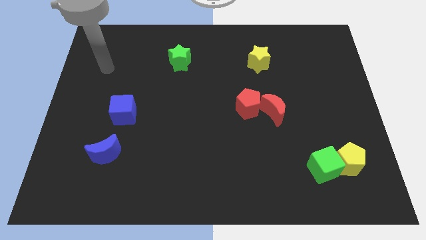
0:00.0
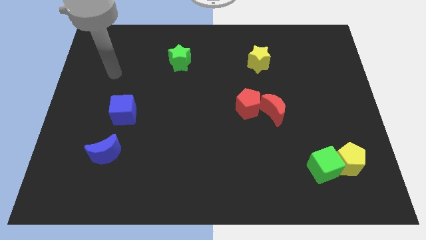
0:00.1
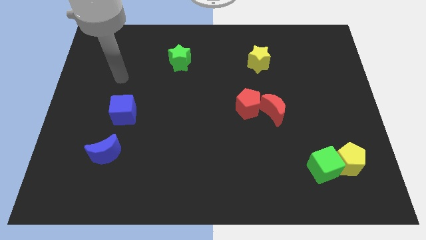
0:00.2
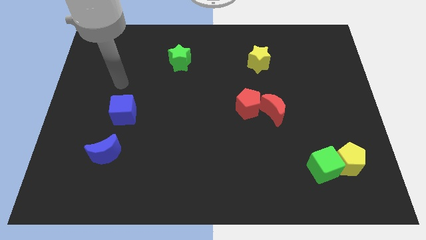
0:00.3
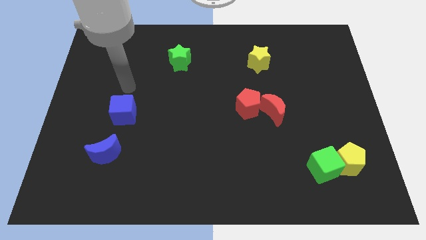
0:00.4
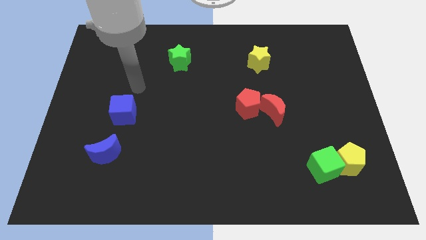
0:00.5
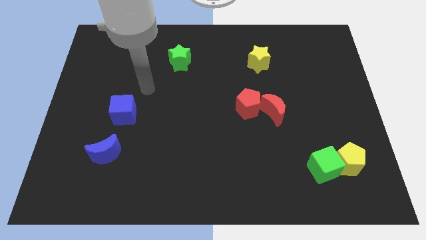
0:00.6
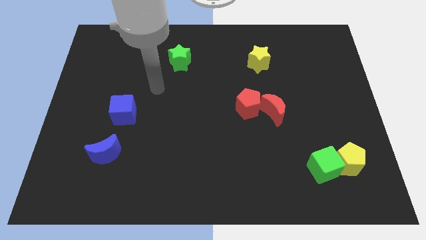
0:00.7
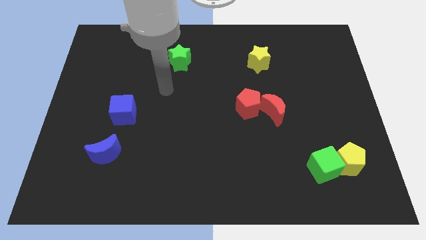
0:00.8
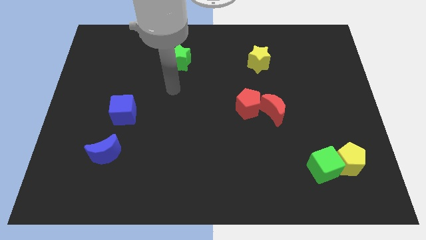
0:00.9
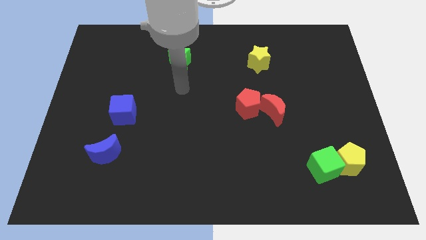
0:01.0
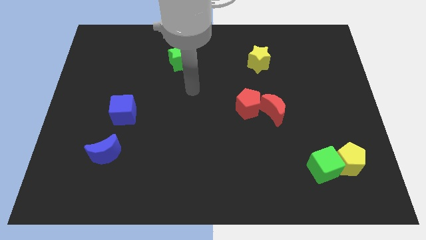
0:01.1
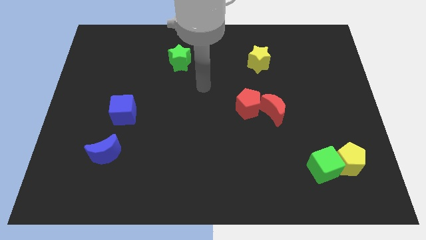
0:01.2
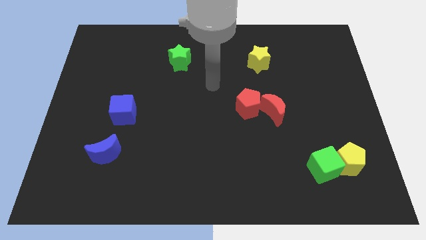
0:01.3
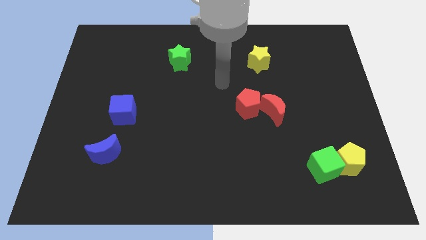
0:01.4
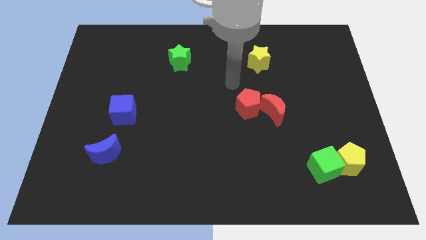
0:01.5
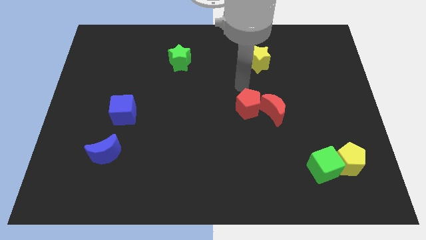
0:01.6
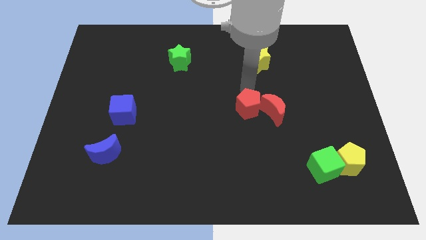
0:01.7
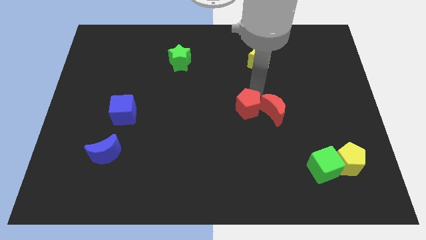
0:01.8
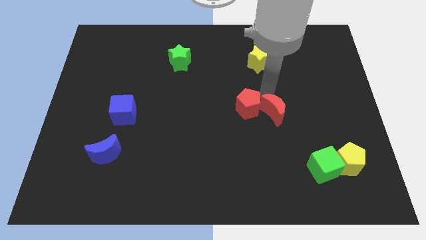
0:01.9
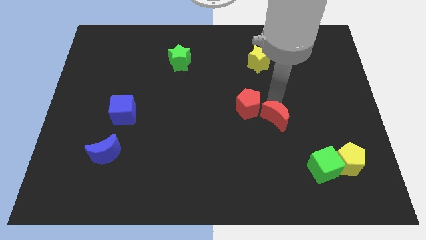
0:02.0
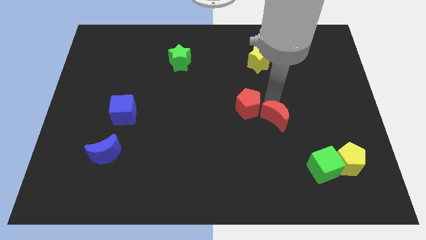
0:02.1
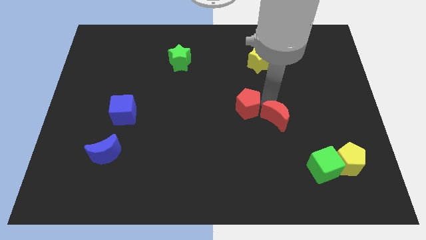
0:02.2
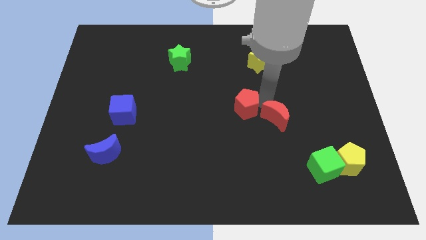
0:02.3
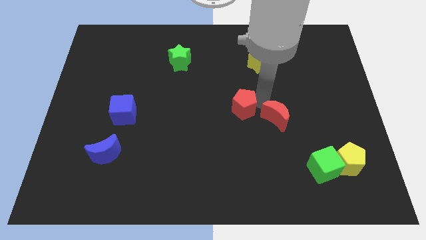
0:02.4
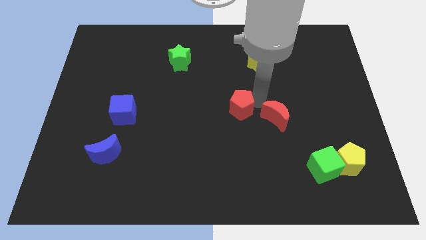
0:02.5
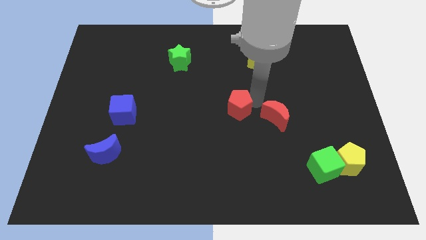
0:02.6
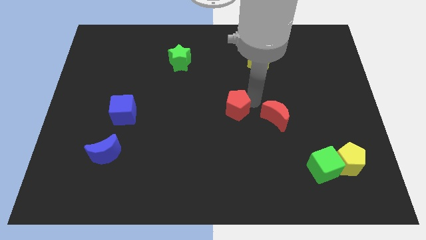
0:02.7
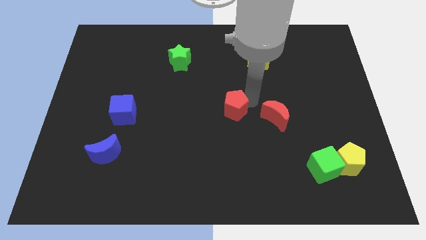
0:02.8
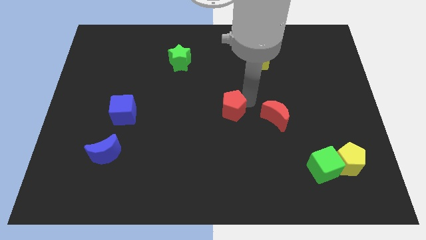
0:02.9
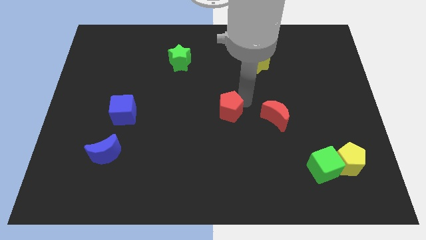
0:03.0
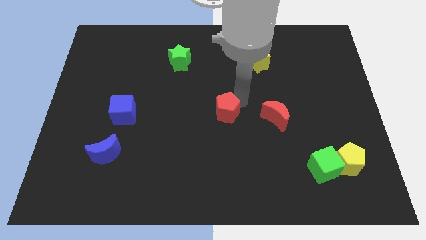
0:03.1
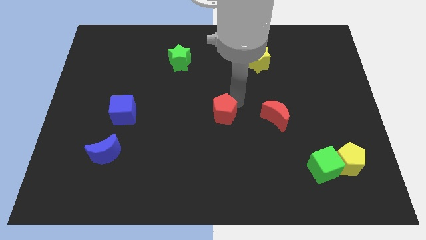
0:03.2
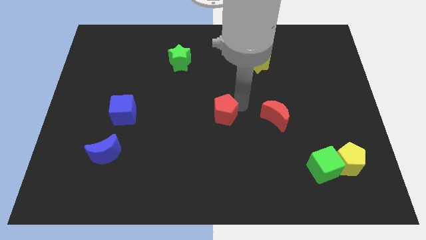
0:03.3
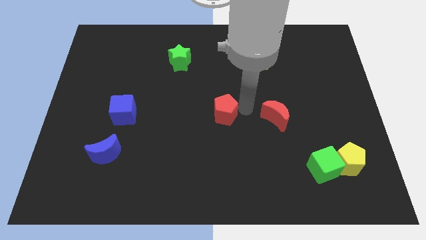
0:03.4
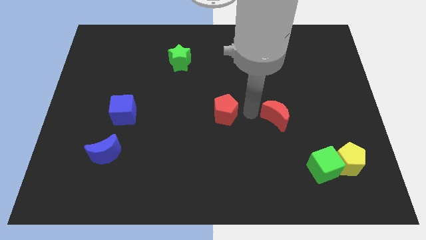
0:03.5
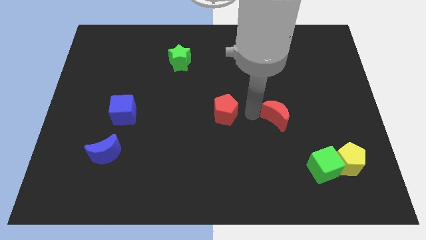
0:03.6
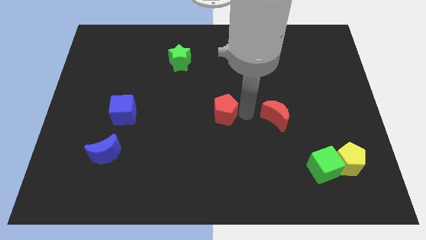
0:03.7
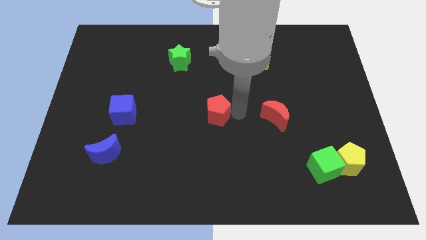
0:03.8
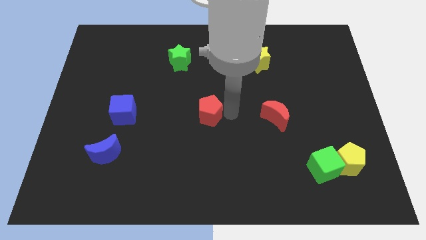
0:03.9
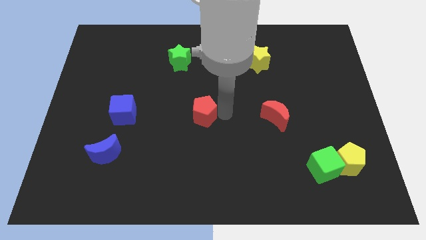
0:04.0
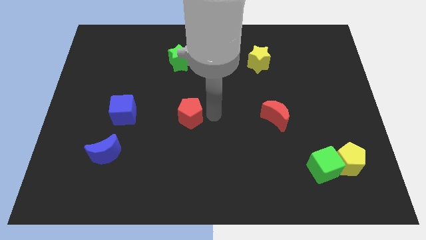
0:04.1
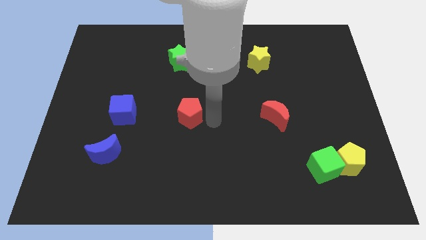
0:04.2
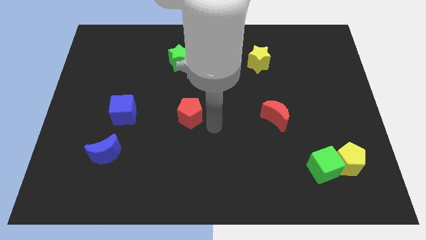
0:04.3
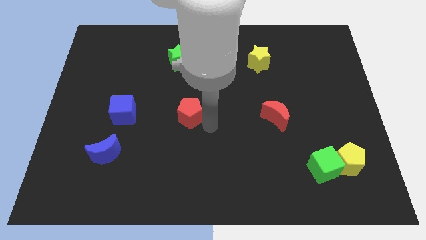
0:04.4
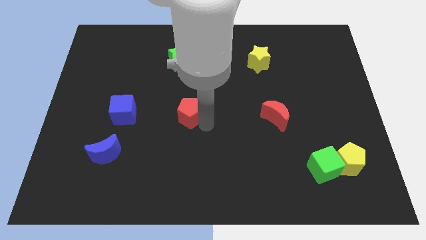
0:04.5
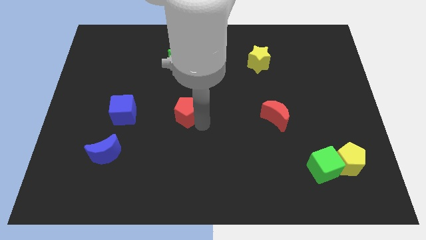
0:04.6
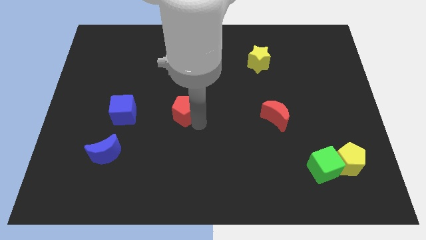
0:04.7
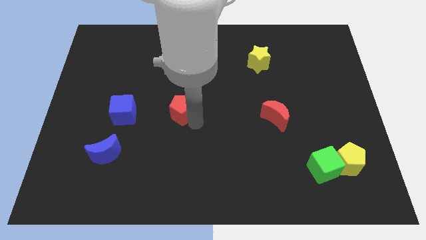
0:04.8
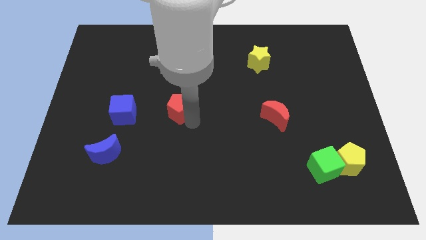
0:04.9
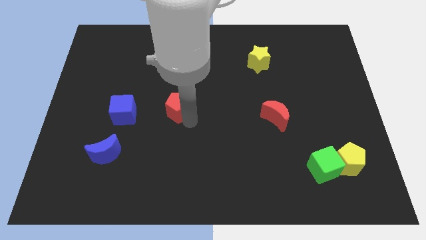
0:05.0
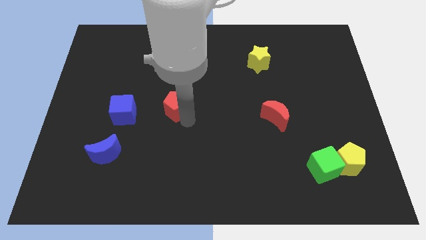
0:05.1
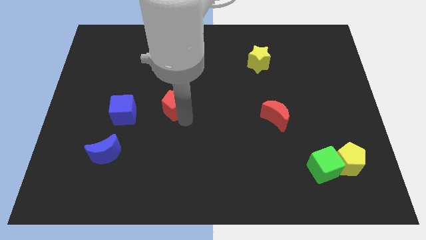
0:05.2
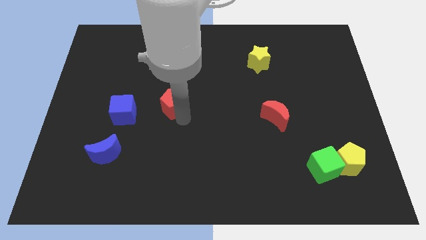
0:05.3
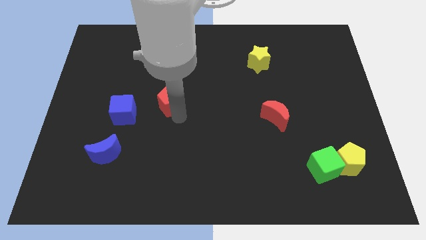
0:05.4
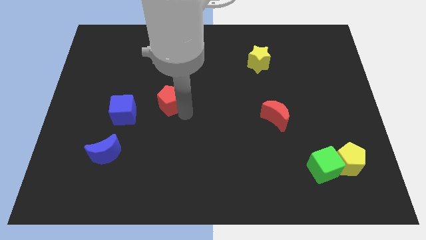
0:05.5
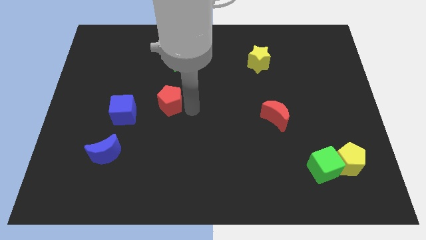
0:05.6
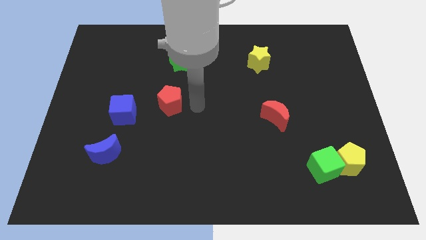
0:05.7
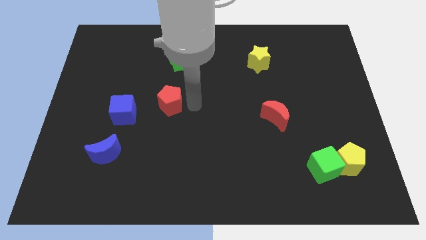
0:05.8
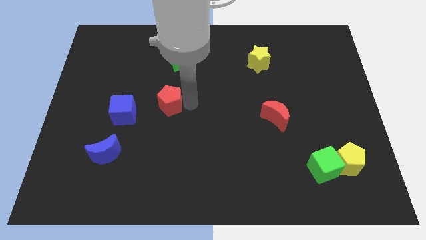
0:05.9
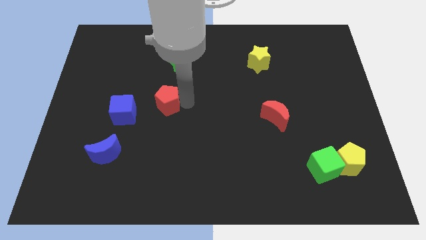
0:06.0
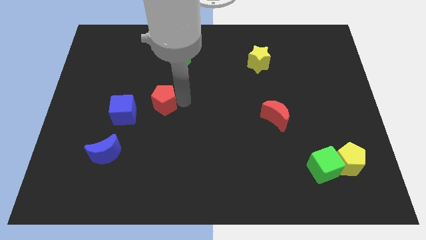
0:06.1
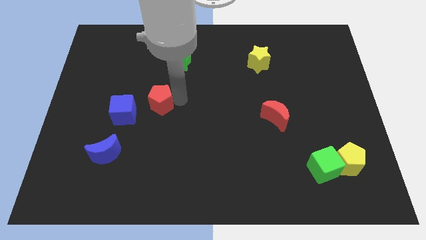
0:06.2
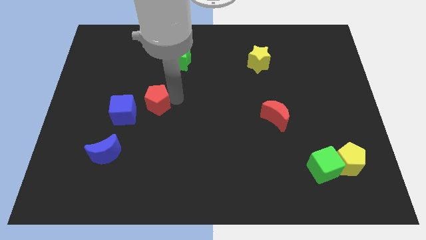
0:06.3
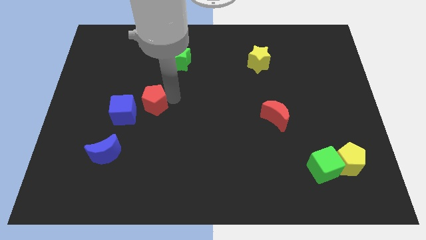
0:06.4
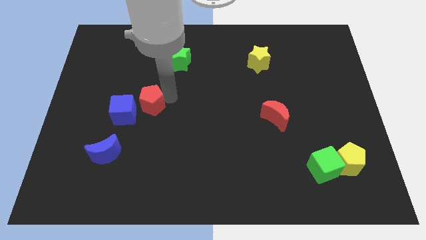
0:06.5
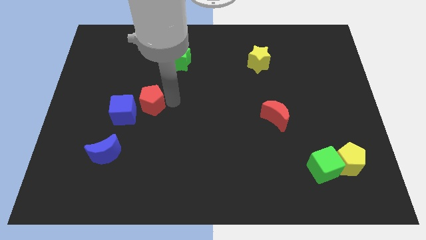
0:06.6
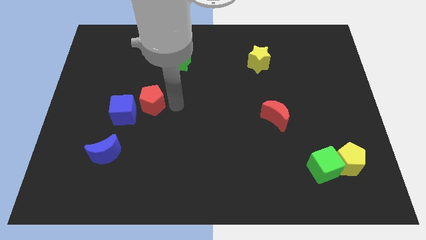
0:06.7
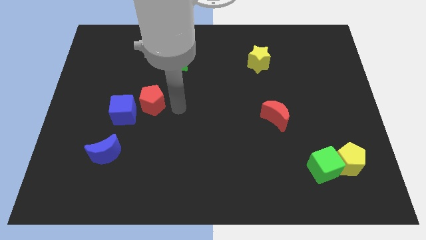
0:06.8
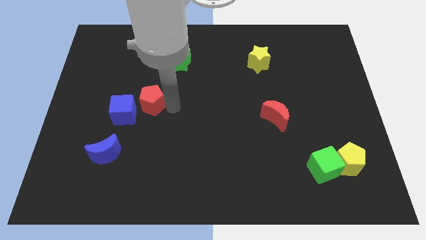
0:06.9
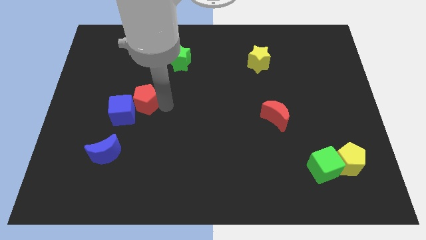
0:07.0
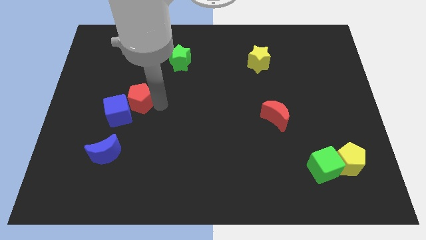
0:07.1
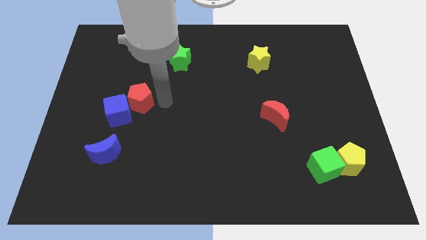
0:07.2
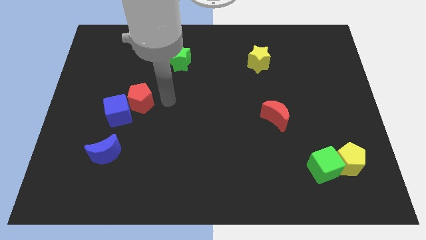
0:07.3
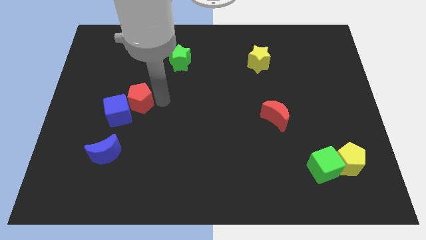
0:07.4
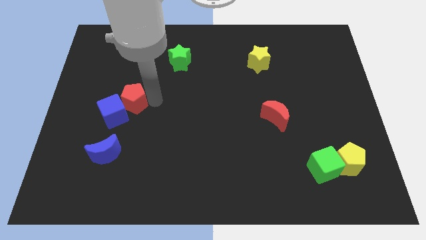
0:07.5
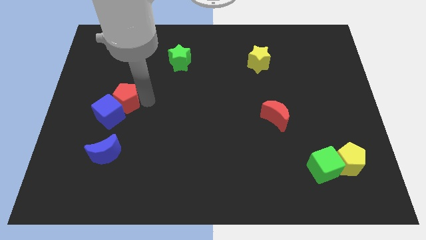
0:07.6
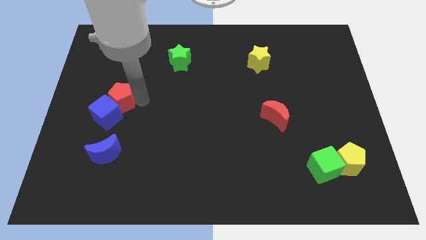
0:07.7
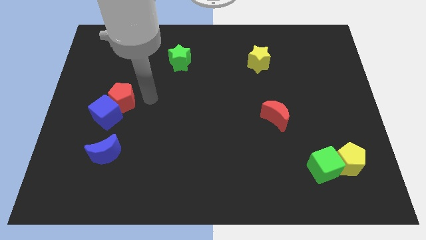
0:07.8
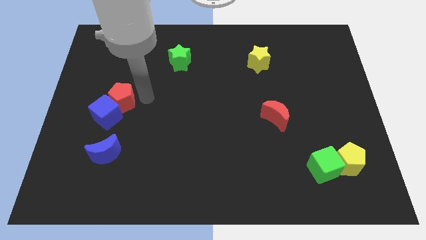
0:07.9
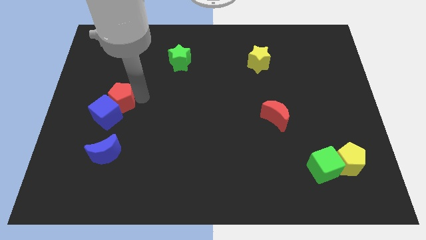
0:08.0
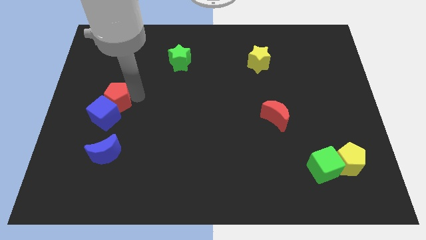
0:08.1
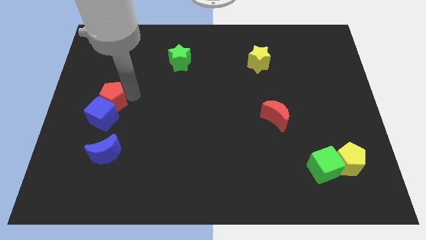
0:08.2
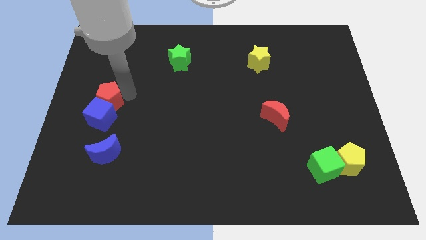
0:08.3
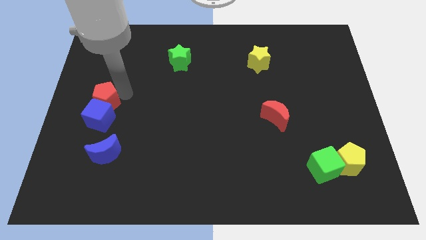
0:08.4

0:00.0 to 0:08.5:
push the red pentagon to the left side
